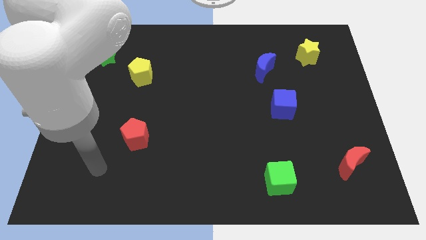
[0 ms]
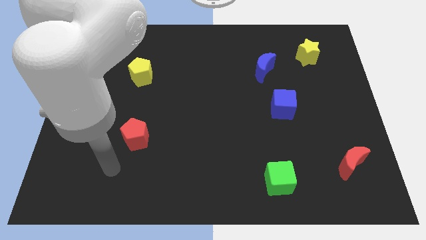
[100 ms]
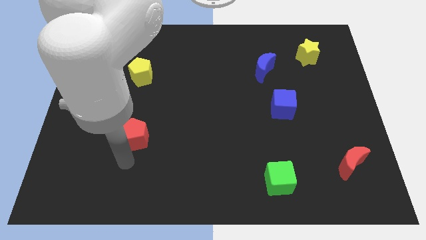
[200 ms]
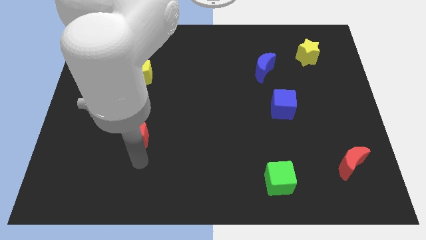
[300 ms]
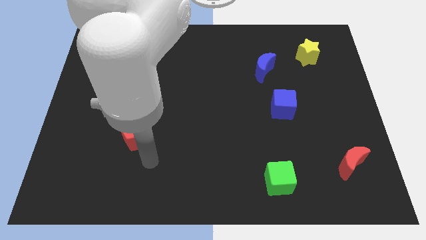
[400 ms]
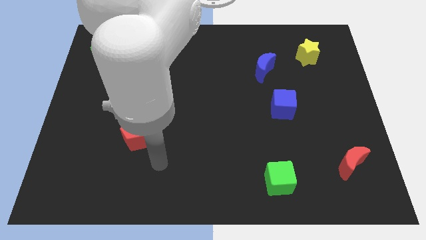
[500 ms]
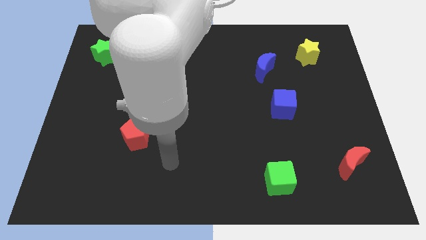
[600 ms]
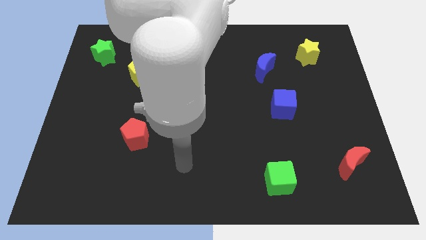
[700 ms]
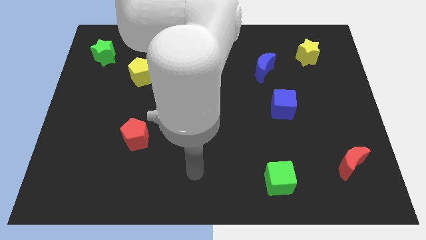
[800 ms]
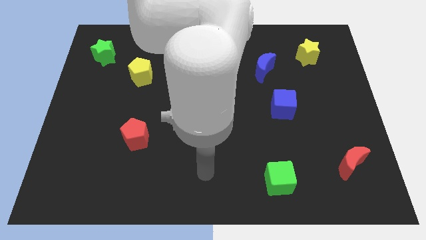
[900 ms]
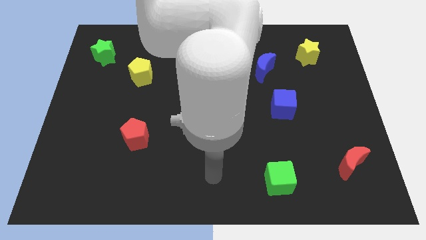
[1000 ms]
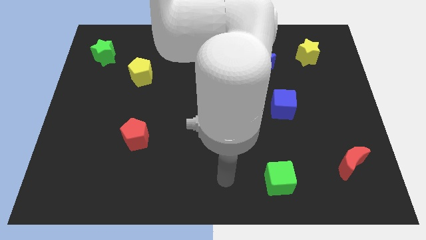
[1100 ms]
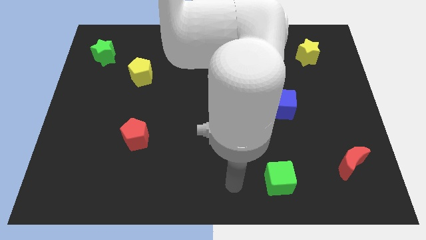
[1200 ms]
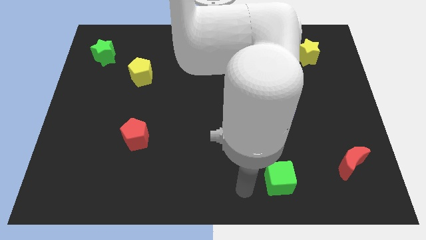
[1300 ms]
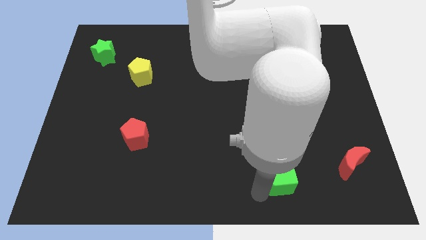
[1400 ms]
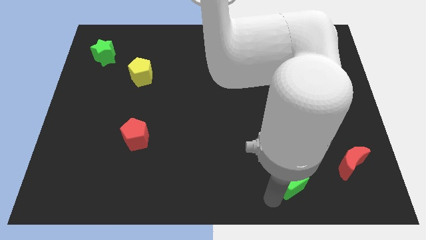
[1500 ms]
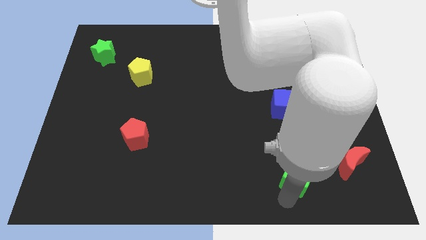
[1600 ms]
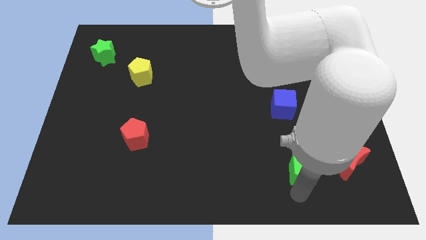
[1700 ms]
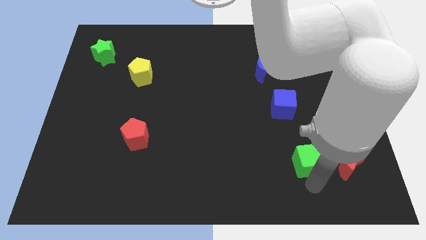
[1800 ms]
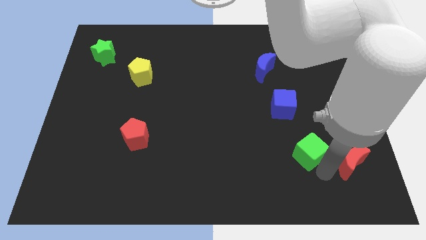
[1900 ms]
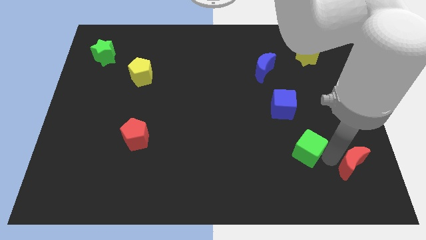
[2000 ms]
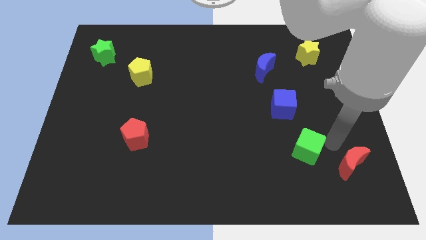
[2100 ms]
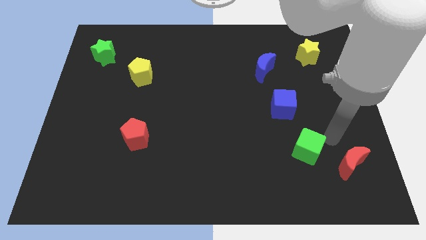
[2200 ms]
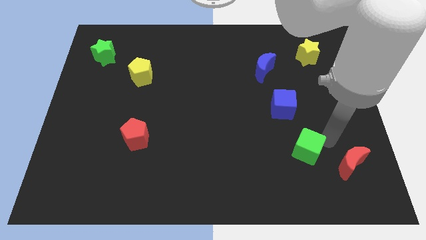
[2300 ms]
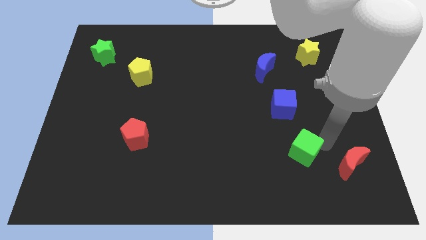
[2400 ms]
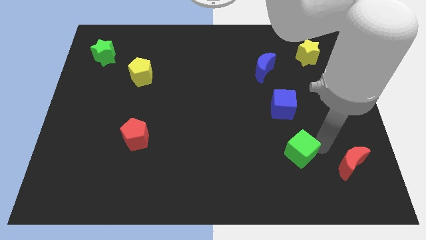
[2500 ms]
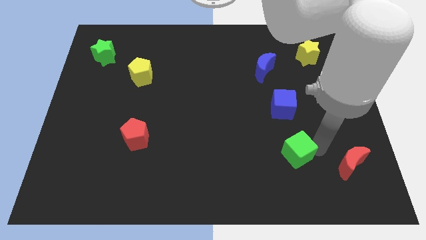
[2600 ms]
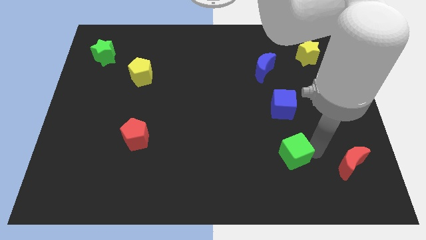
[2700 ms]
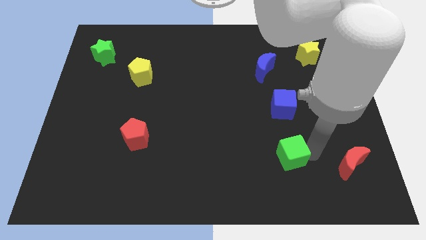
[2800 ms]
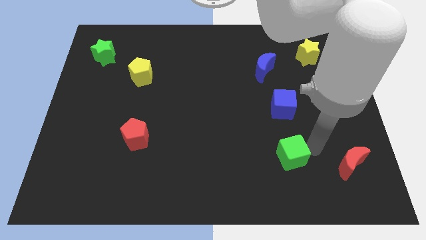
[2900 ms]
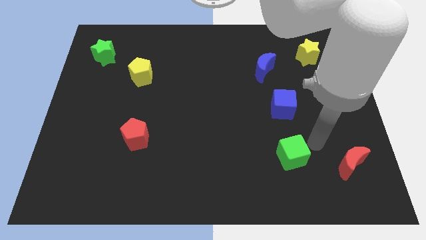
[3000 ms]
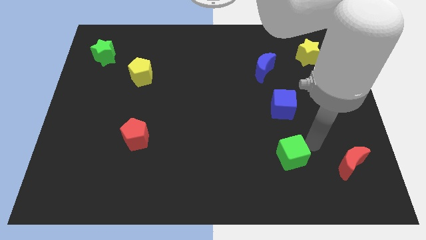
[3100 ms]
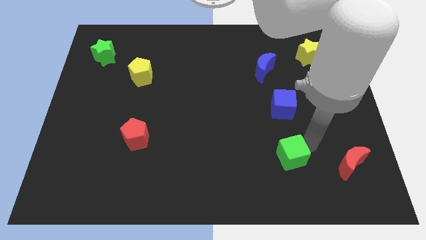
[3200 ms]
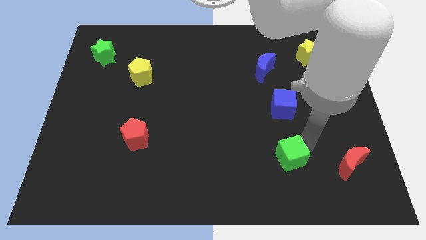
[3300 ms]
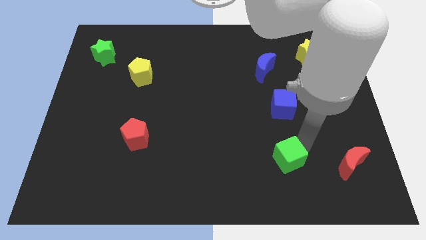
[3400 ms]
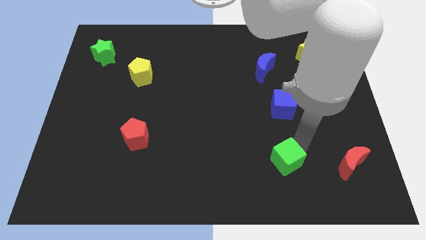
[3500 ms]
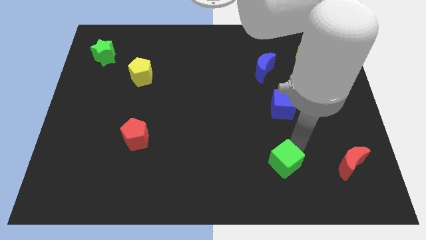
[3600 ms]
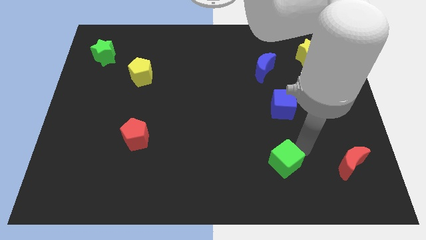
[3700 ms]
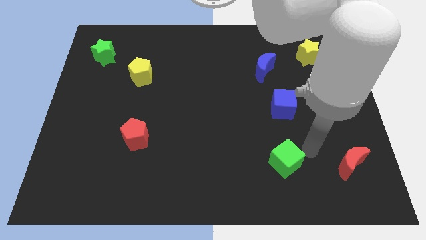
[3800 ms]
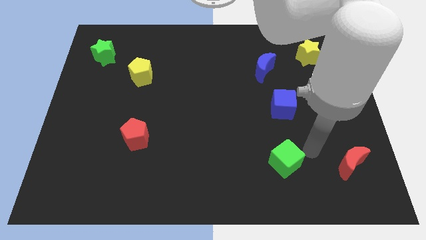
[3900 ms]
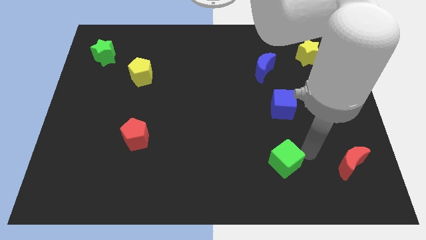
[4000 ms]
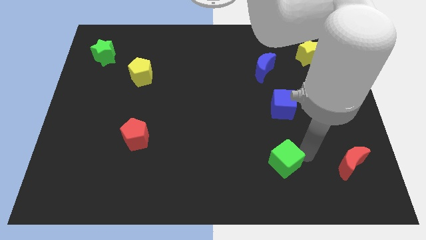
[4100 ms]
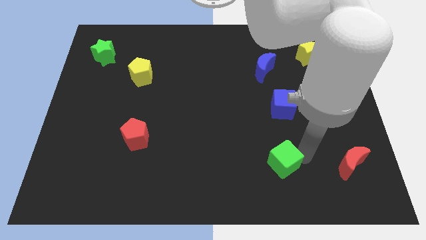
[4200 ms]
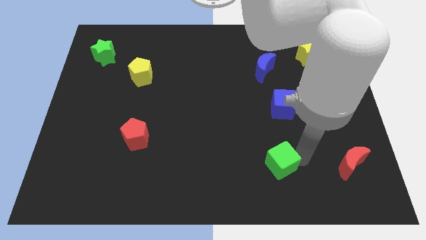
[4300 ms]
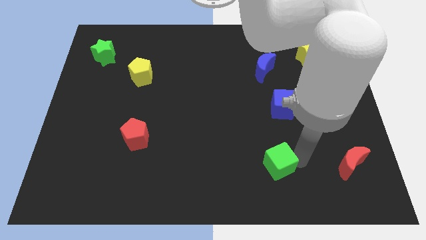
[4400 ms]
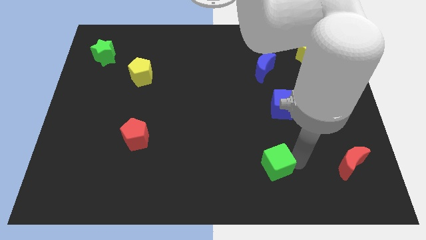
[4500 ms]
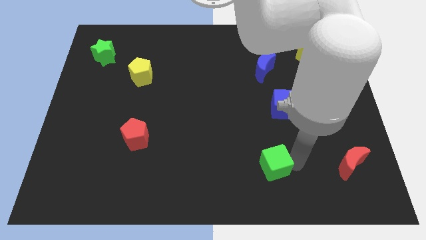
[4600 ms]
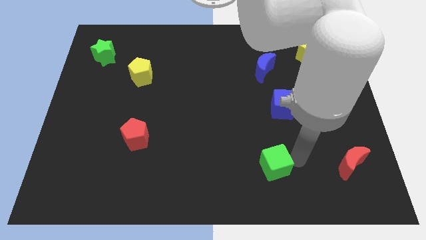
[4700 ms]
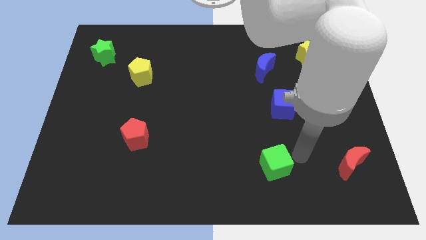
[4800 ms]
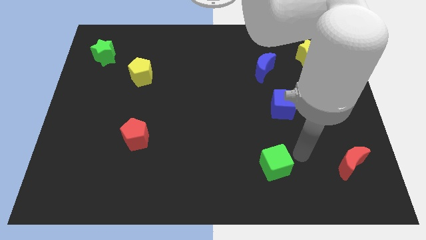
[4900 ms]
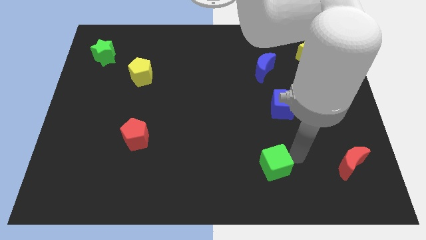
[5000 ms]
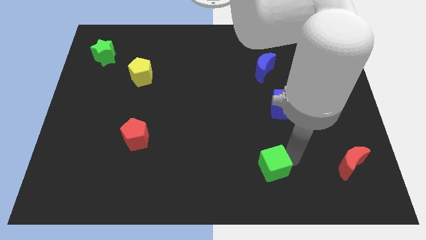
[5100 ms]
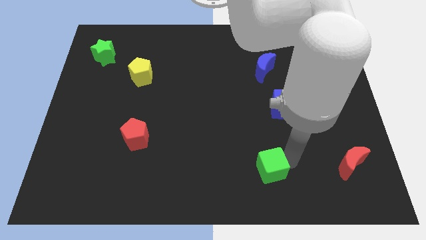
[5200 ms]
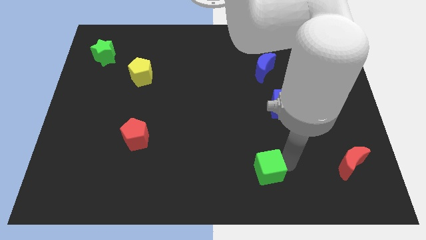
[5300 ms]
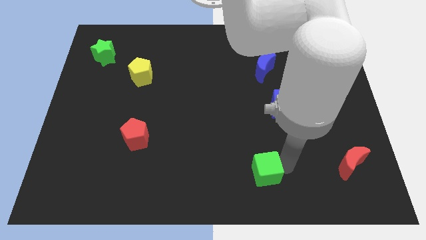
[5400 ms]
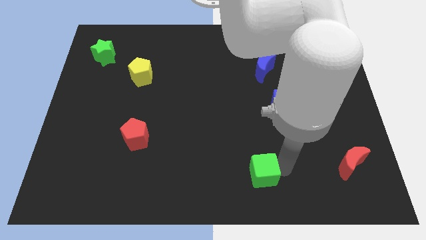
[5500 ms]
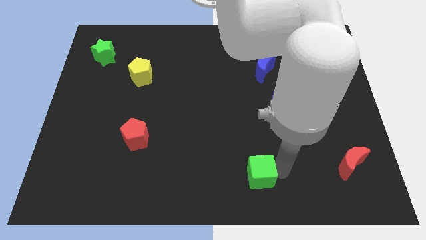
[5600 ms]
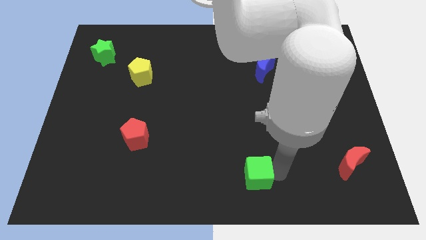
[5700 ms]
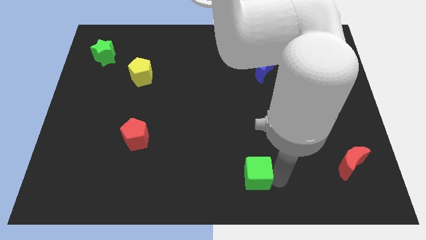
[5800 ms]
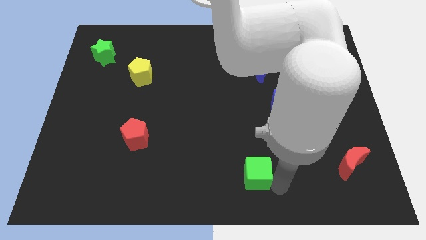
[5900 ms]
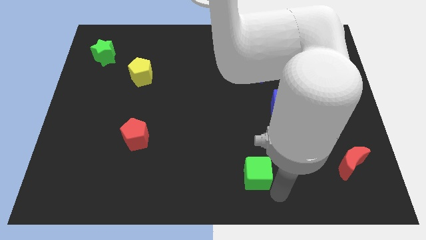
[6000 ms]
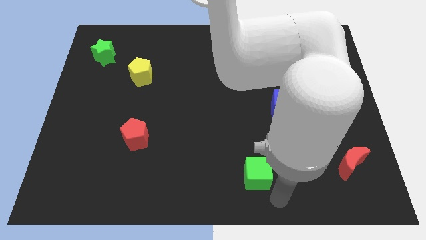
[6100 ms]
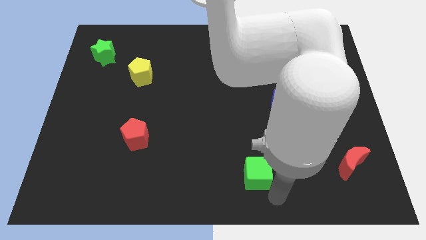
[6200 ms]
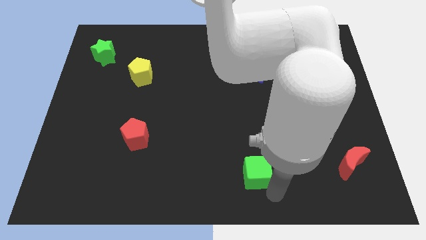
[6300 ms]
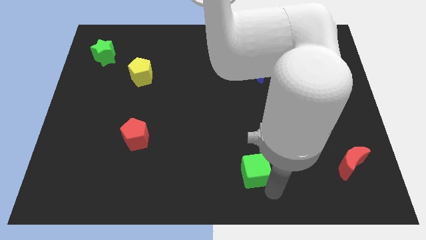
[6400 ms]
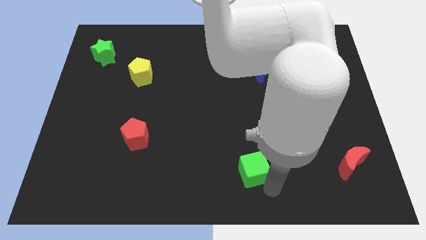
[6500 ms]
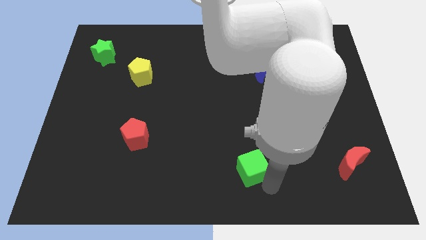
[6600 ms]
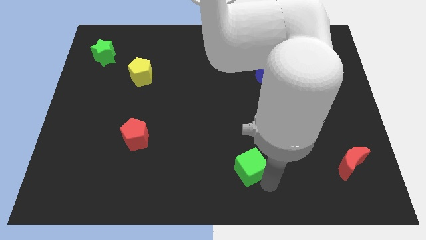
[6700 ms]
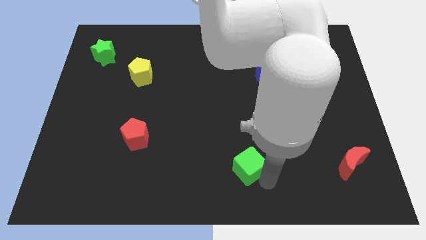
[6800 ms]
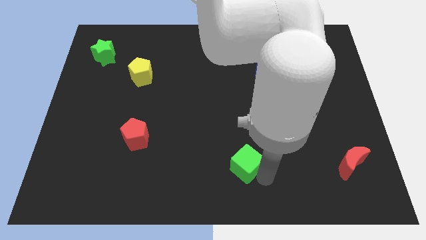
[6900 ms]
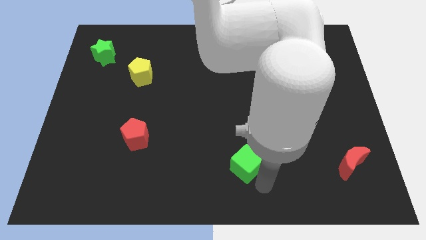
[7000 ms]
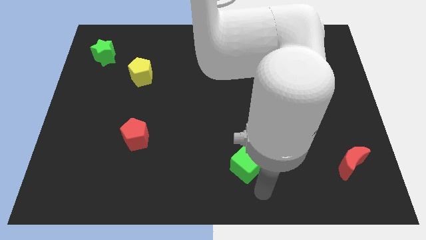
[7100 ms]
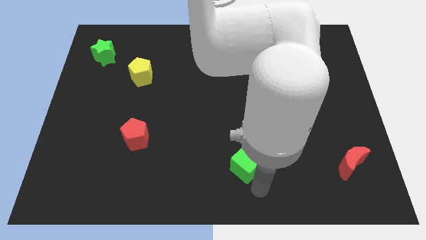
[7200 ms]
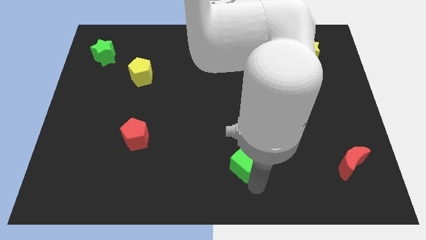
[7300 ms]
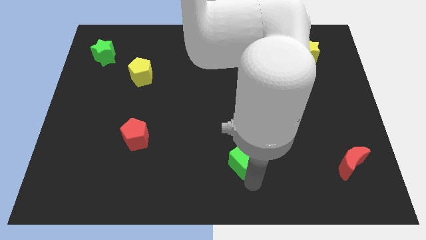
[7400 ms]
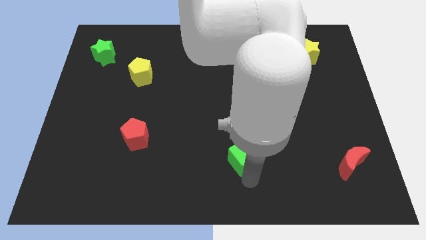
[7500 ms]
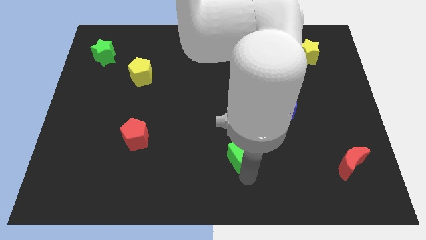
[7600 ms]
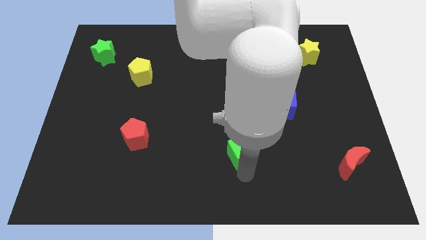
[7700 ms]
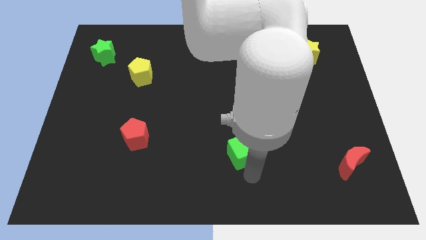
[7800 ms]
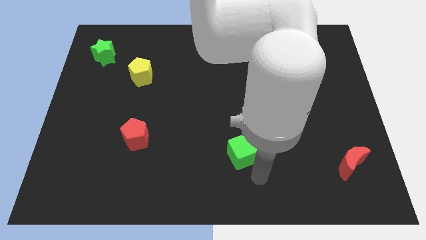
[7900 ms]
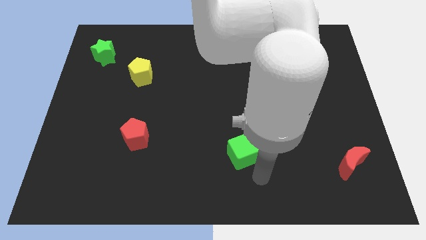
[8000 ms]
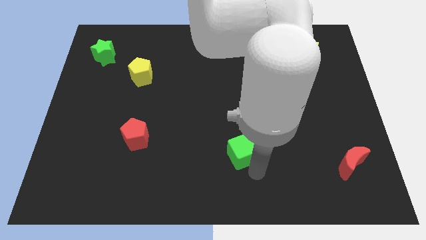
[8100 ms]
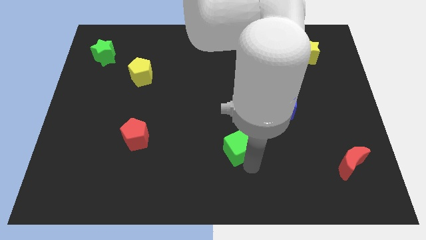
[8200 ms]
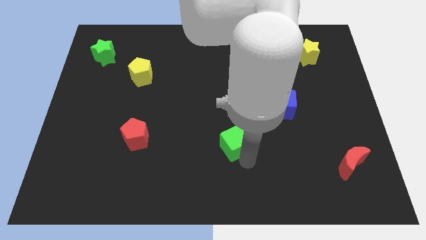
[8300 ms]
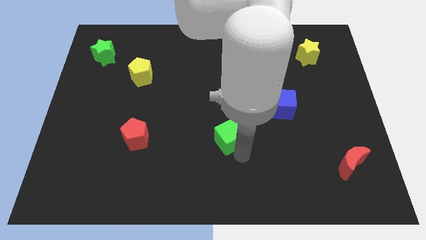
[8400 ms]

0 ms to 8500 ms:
push the green cube to the center of the board
